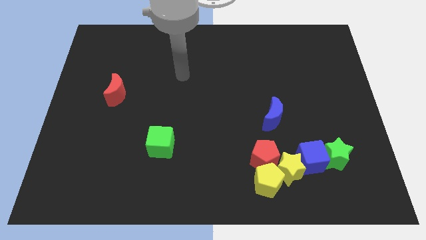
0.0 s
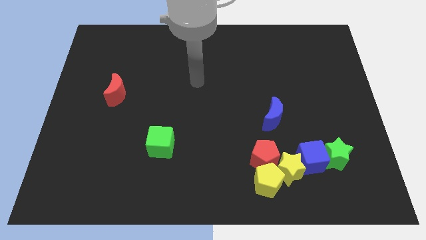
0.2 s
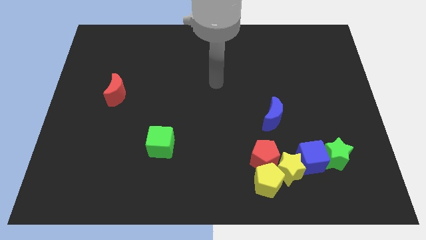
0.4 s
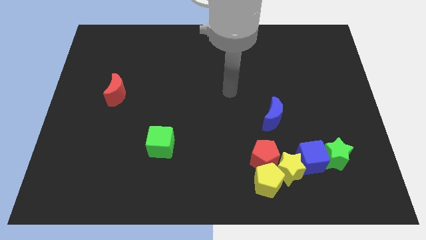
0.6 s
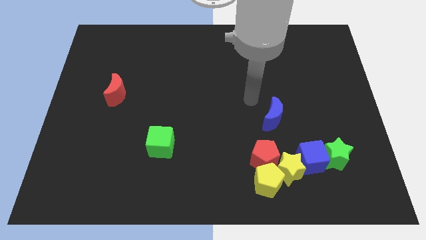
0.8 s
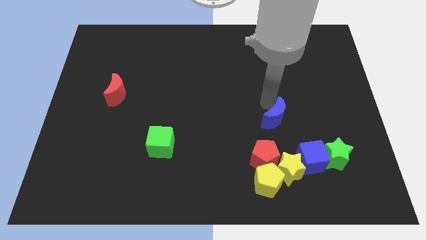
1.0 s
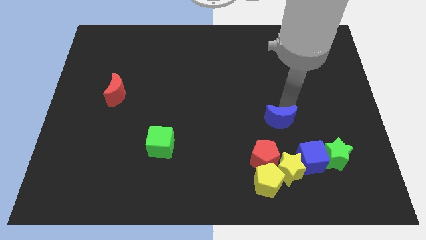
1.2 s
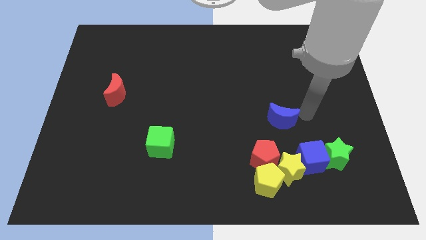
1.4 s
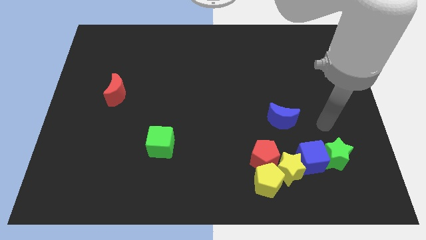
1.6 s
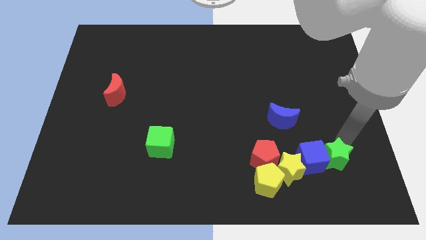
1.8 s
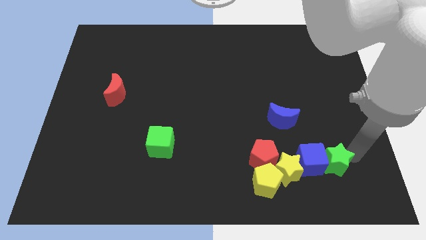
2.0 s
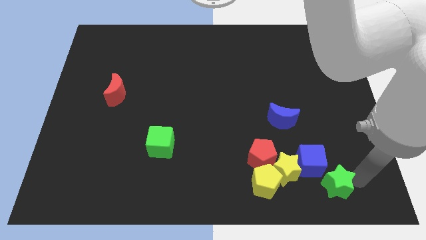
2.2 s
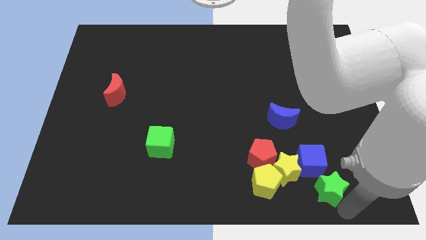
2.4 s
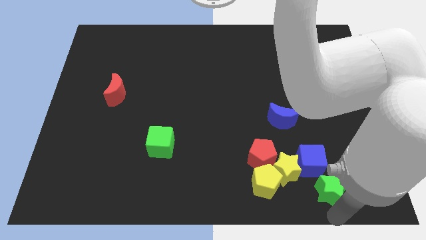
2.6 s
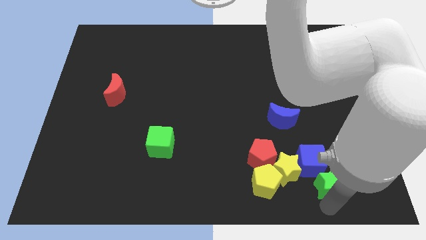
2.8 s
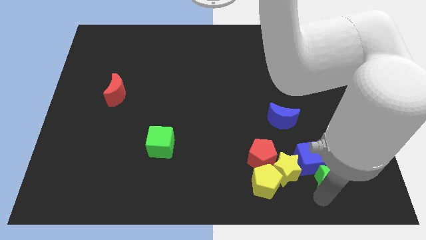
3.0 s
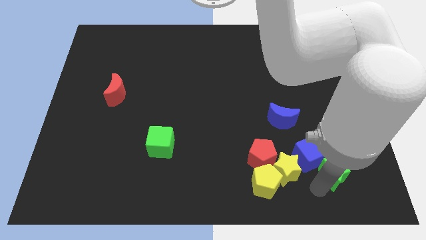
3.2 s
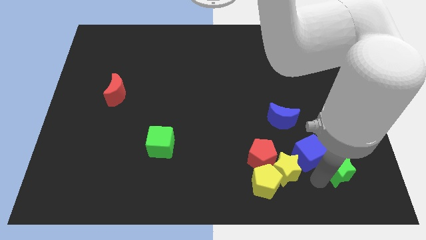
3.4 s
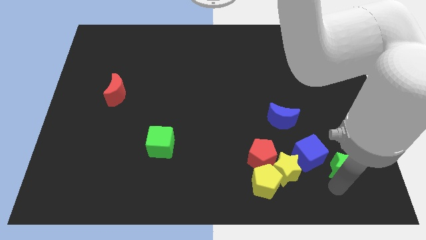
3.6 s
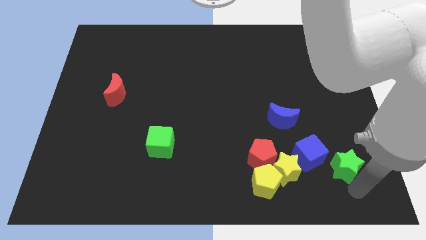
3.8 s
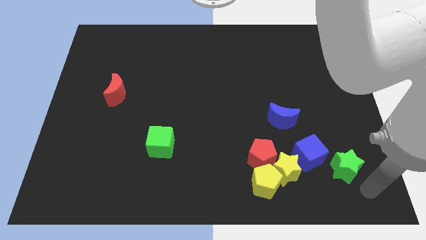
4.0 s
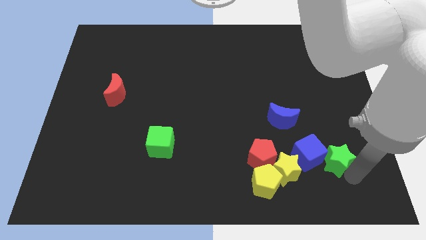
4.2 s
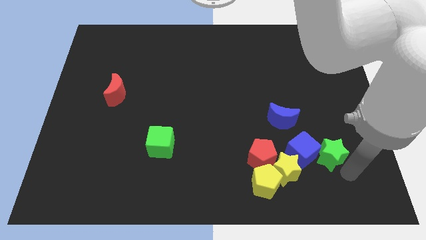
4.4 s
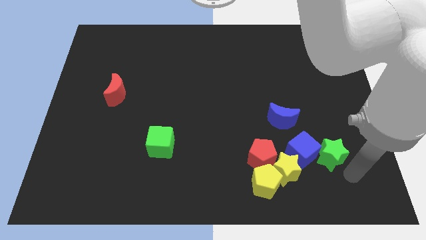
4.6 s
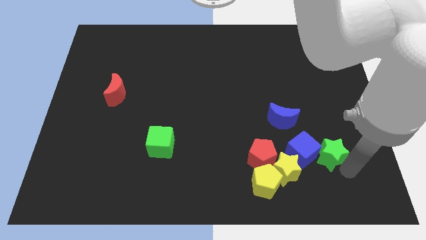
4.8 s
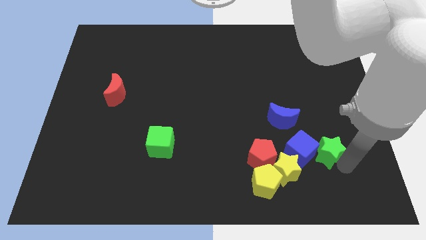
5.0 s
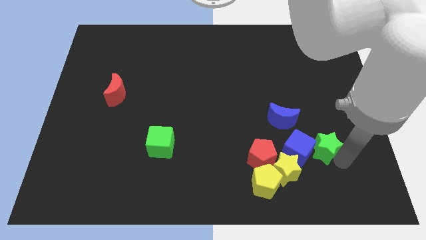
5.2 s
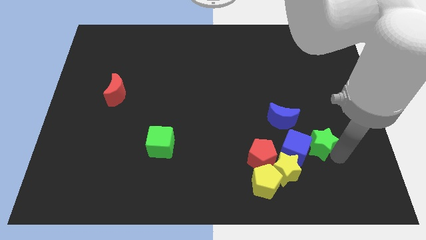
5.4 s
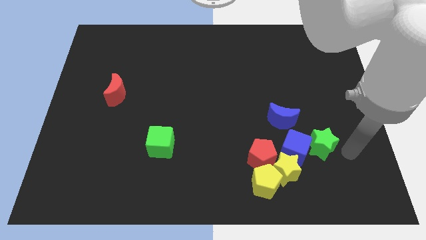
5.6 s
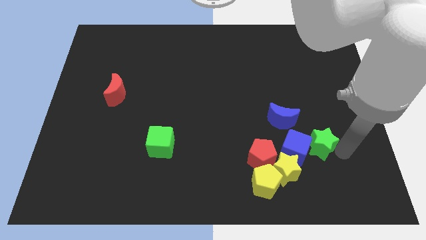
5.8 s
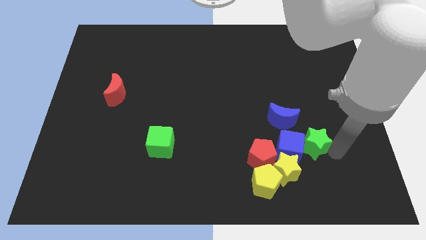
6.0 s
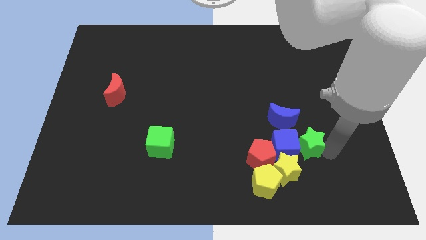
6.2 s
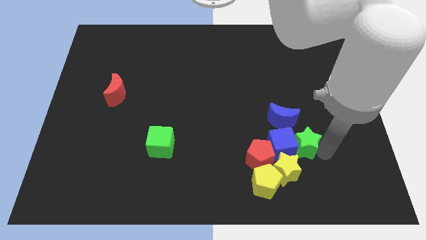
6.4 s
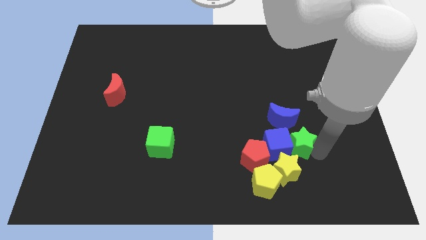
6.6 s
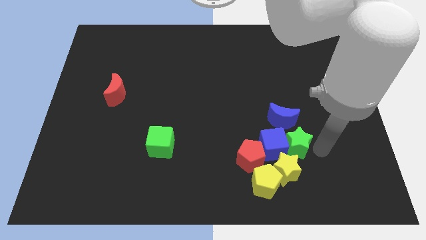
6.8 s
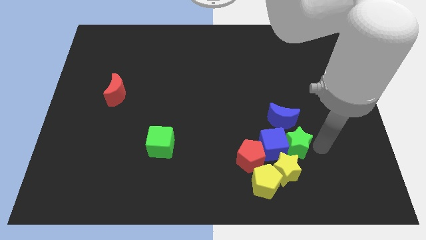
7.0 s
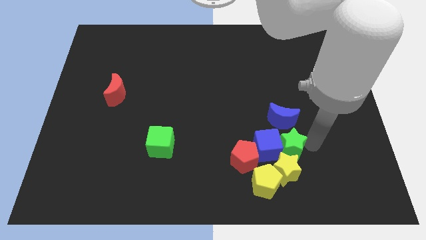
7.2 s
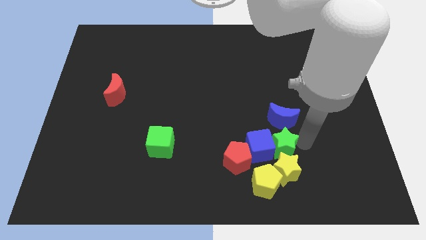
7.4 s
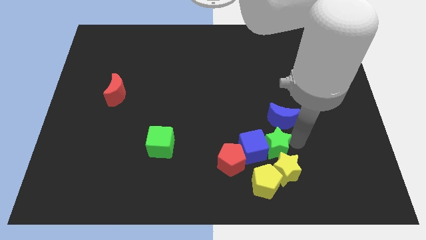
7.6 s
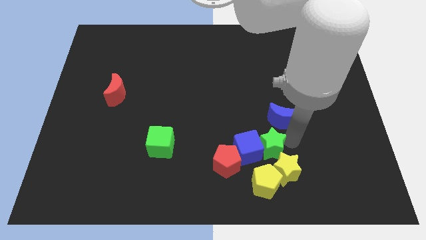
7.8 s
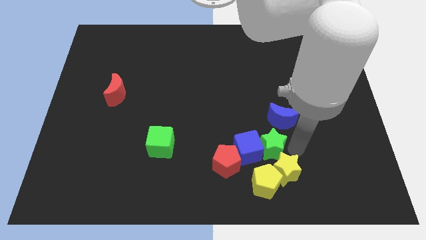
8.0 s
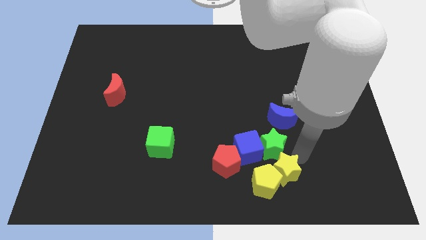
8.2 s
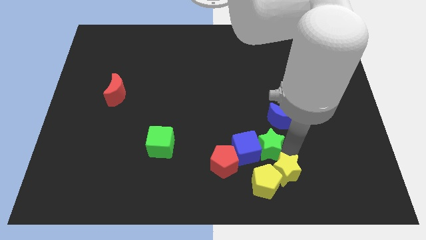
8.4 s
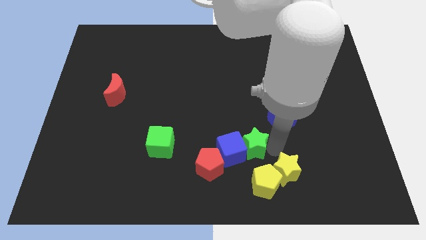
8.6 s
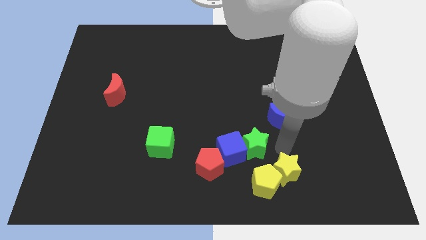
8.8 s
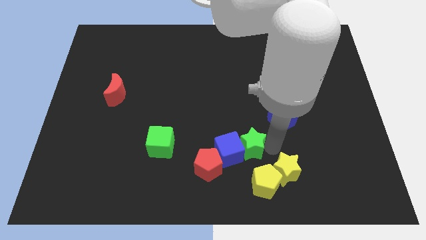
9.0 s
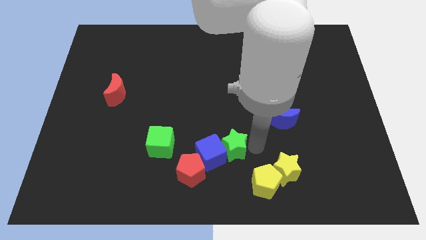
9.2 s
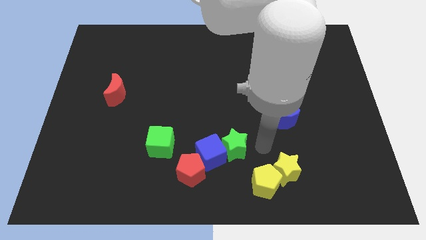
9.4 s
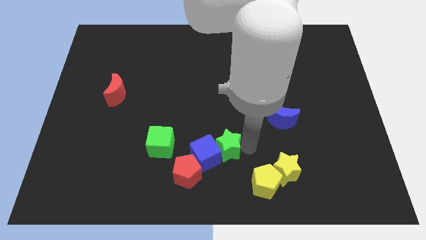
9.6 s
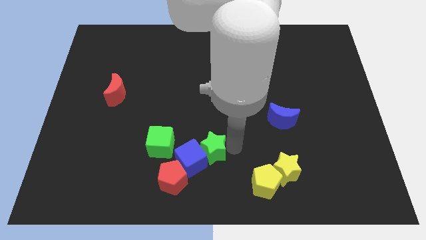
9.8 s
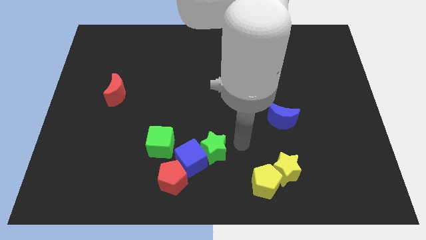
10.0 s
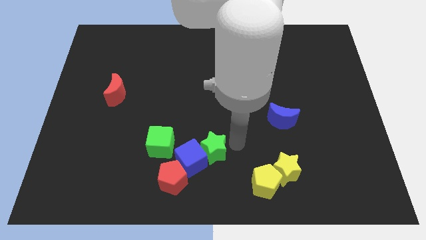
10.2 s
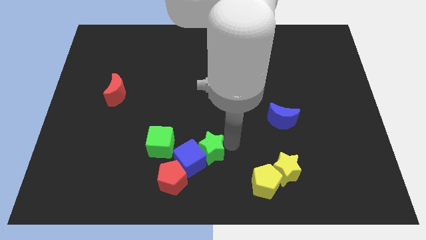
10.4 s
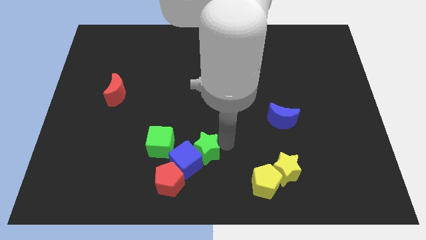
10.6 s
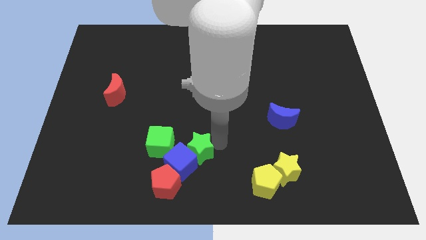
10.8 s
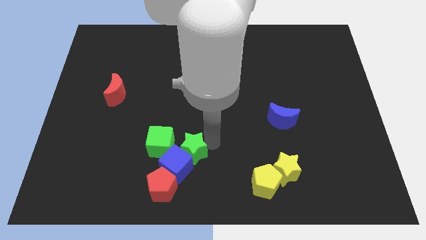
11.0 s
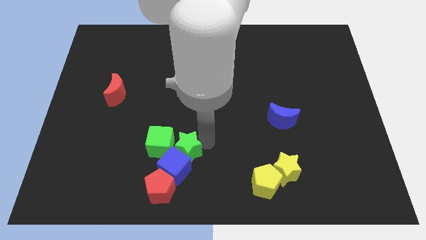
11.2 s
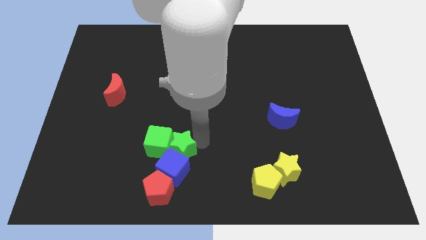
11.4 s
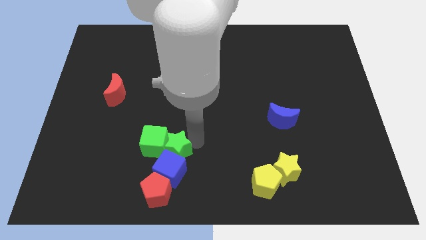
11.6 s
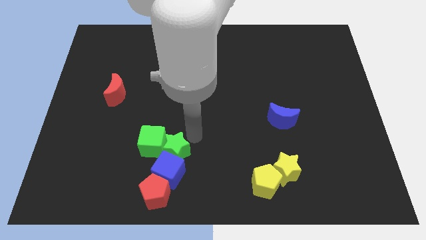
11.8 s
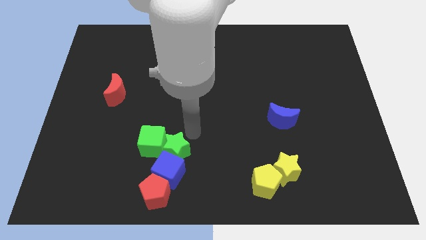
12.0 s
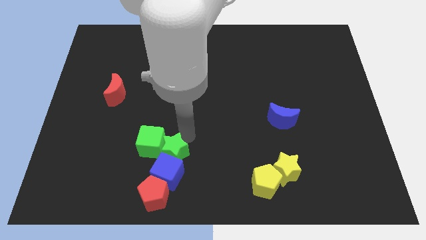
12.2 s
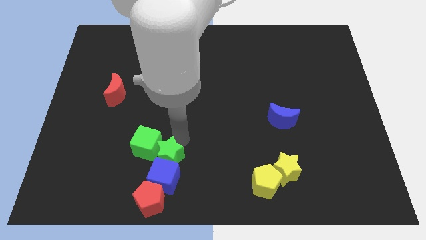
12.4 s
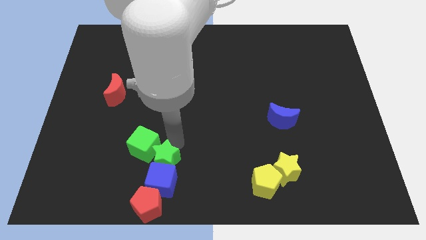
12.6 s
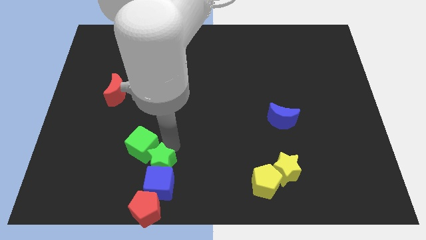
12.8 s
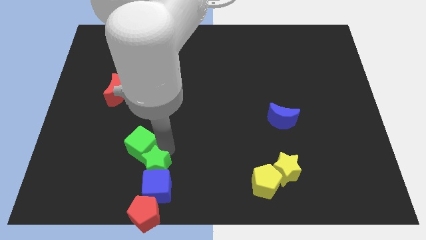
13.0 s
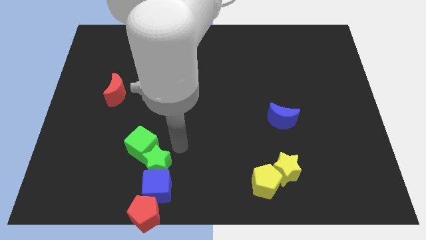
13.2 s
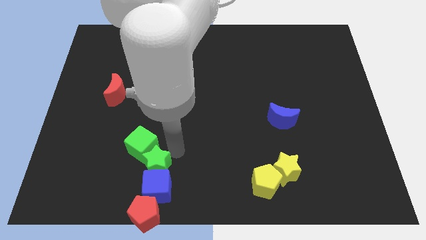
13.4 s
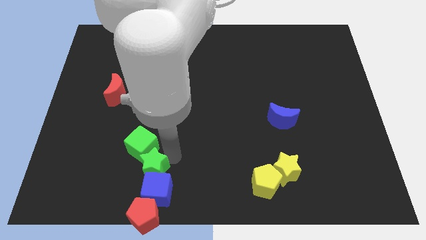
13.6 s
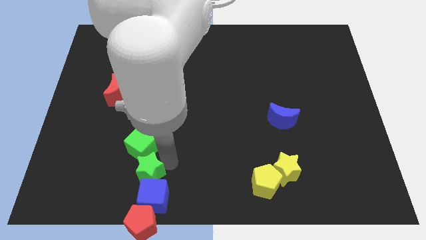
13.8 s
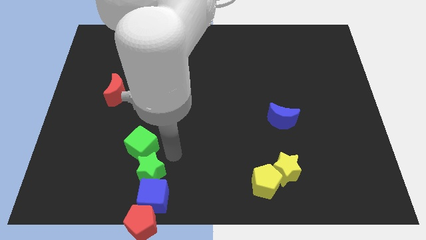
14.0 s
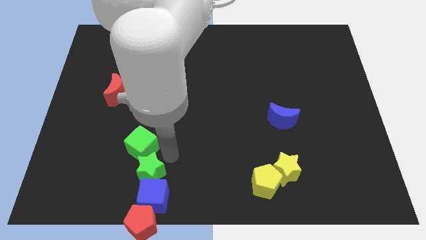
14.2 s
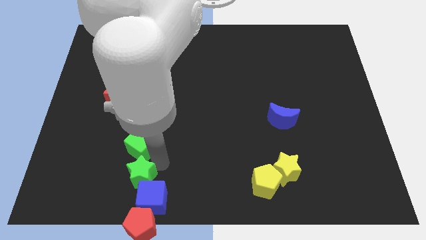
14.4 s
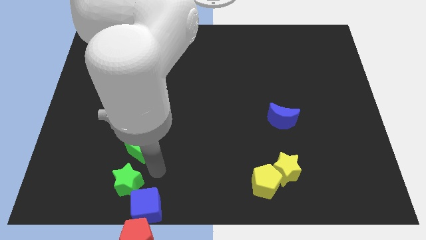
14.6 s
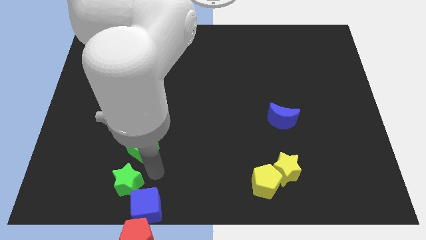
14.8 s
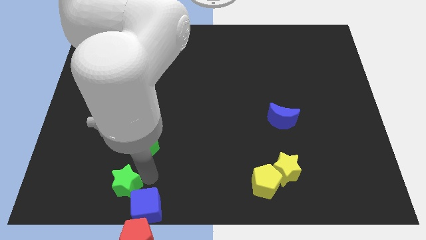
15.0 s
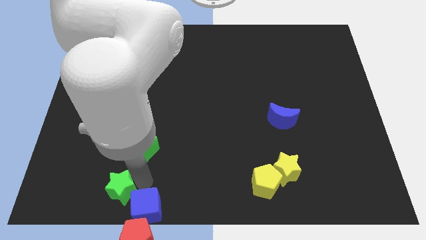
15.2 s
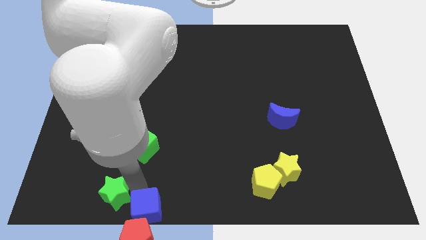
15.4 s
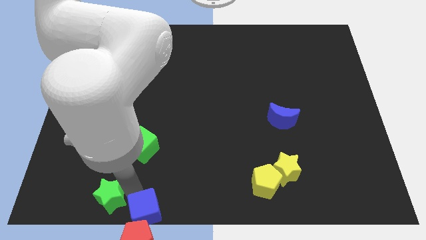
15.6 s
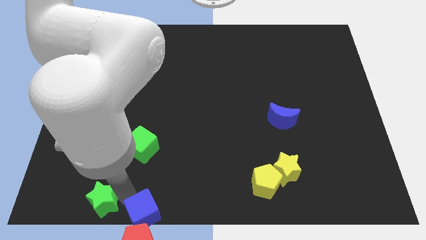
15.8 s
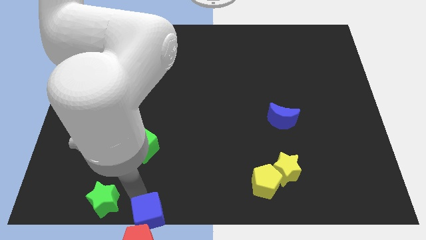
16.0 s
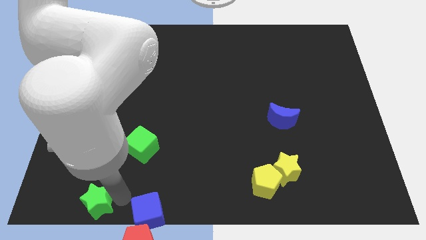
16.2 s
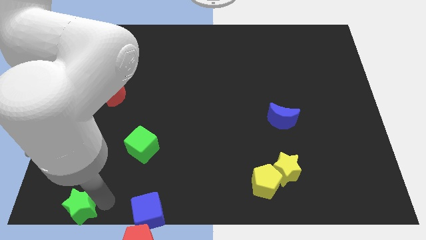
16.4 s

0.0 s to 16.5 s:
put the green star to the bottom left
